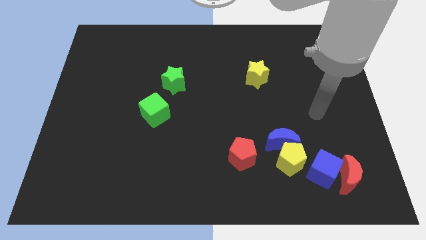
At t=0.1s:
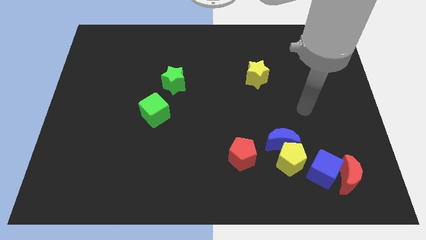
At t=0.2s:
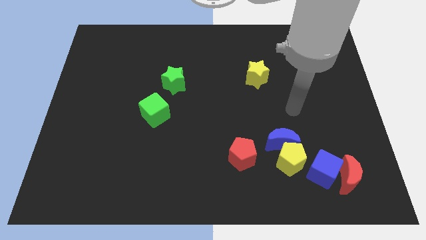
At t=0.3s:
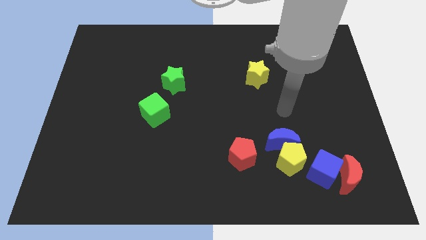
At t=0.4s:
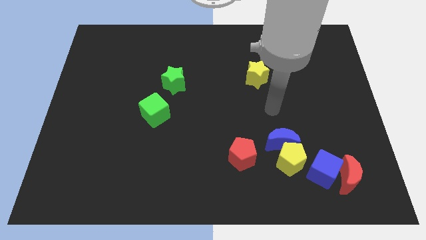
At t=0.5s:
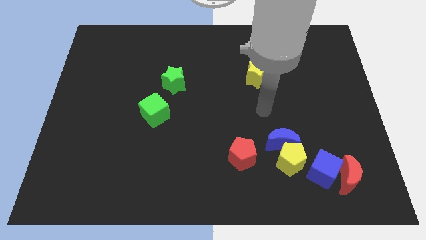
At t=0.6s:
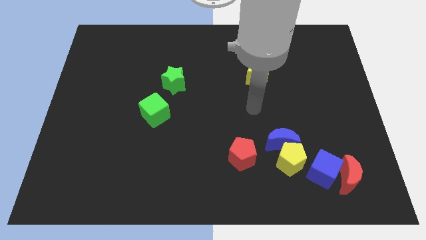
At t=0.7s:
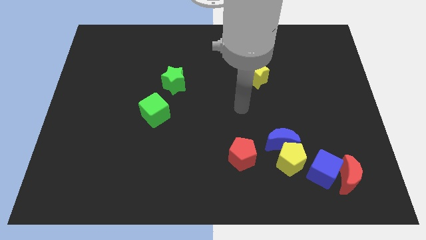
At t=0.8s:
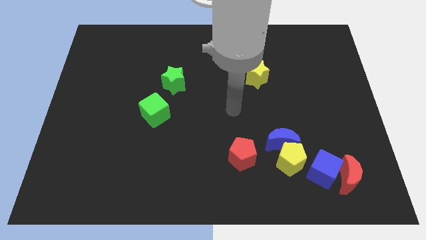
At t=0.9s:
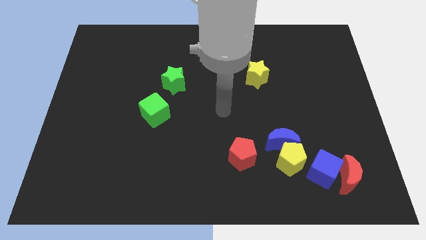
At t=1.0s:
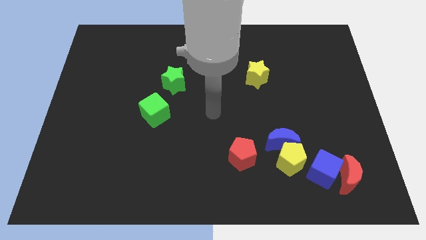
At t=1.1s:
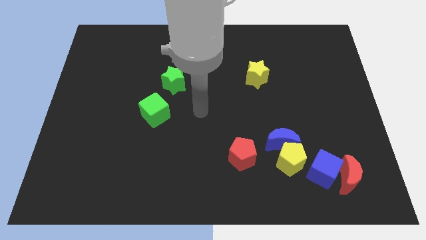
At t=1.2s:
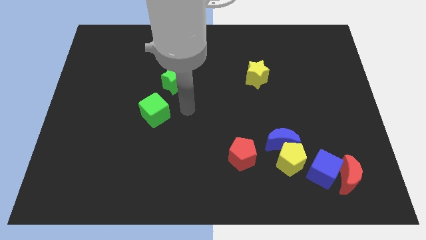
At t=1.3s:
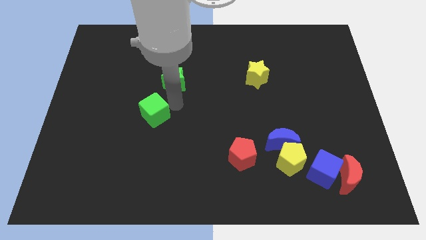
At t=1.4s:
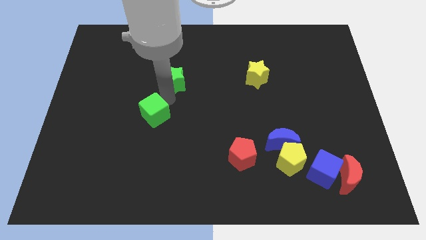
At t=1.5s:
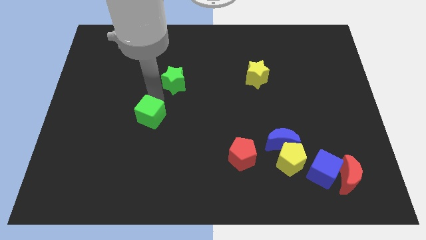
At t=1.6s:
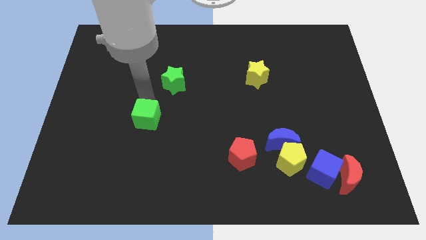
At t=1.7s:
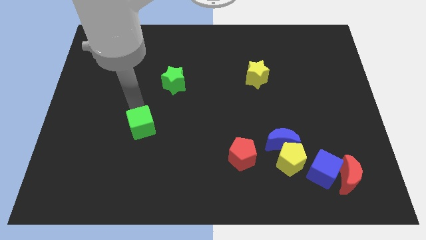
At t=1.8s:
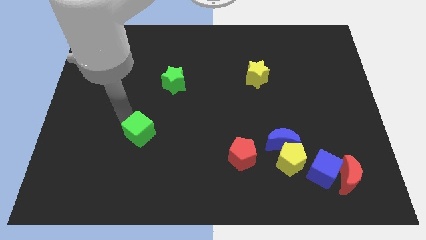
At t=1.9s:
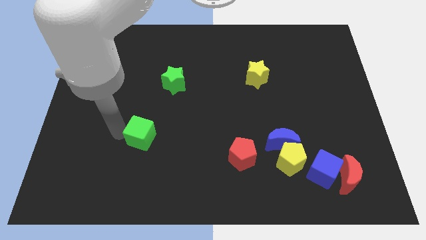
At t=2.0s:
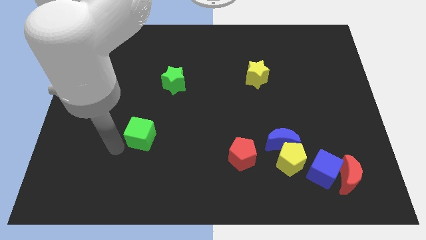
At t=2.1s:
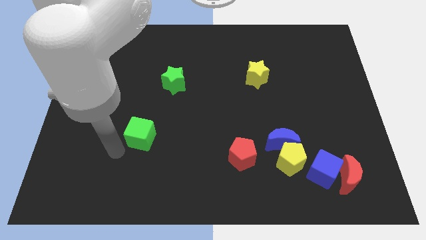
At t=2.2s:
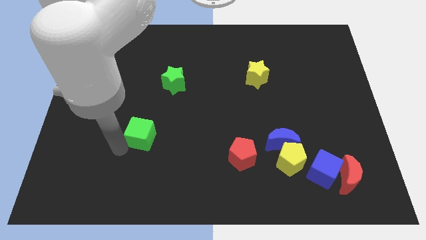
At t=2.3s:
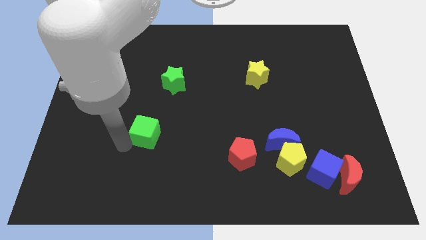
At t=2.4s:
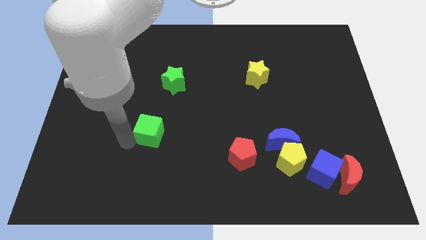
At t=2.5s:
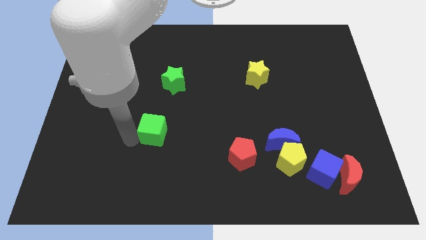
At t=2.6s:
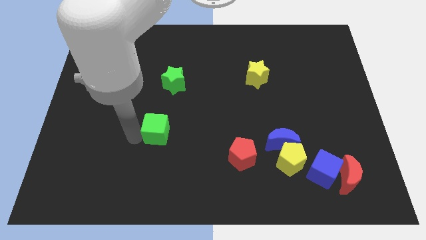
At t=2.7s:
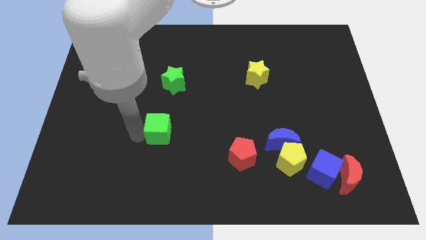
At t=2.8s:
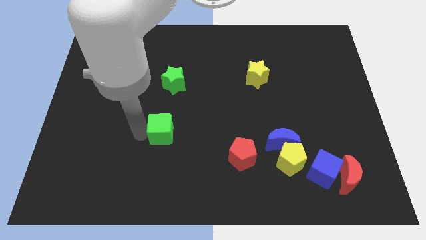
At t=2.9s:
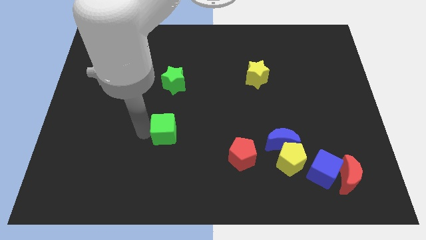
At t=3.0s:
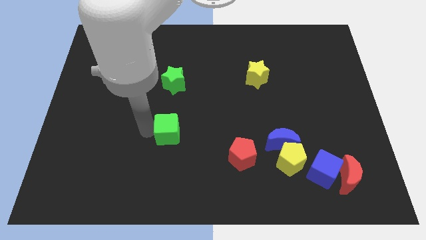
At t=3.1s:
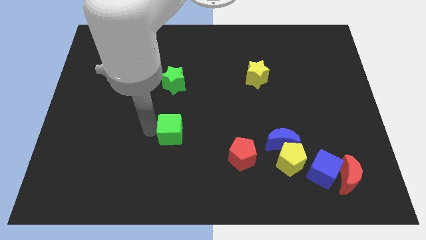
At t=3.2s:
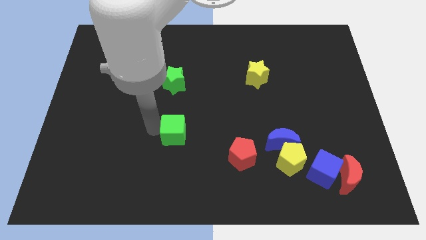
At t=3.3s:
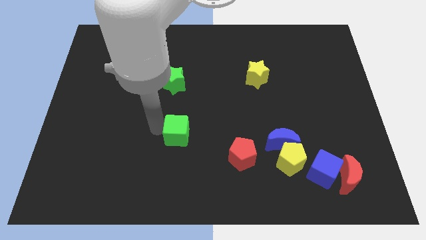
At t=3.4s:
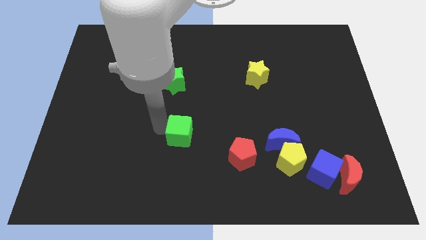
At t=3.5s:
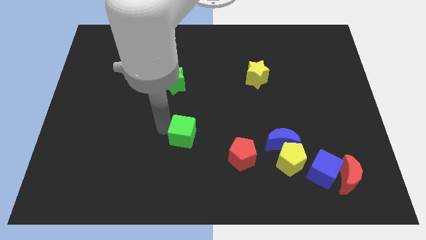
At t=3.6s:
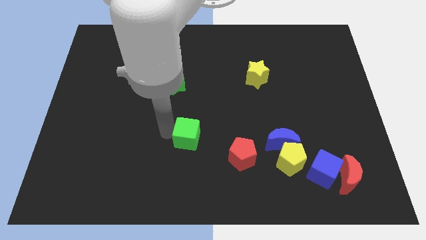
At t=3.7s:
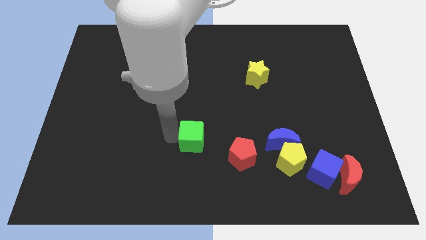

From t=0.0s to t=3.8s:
slightly move the green cube to the right

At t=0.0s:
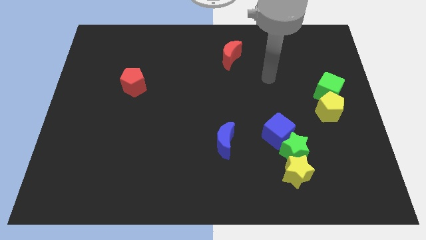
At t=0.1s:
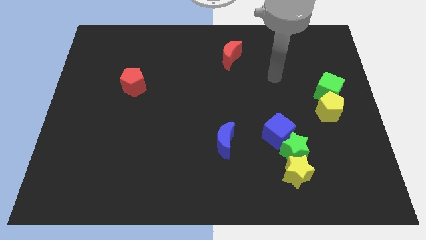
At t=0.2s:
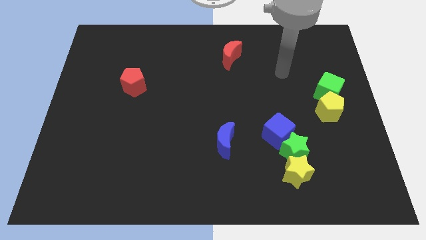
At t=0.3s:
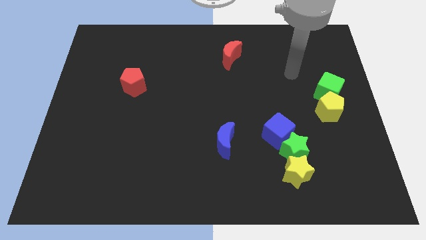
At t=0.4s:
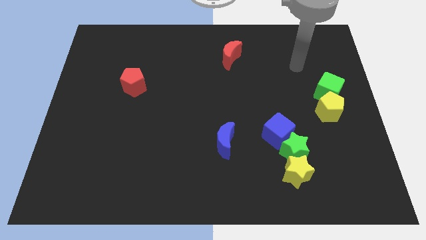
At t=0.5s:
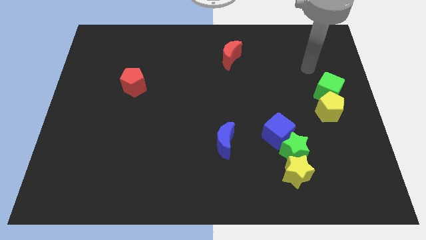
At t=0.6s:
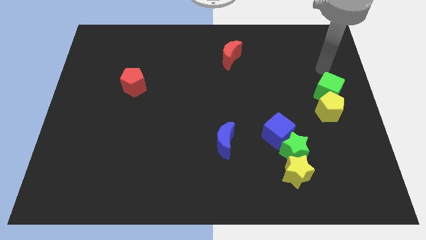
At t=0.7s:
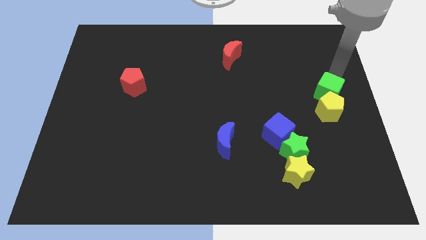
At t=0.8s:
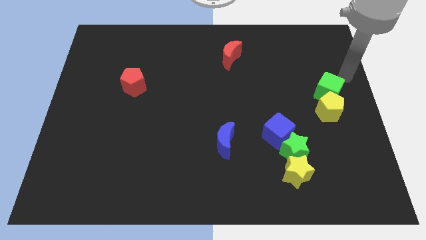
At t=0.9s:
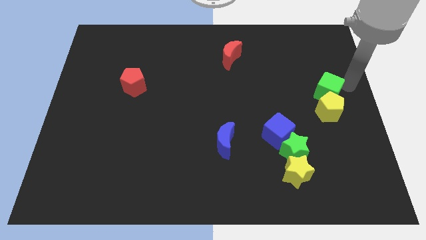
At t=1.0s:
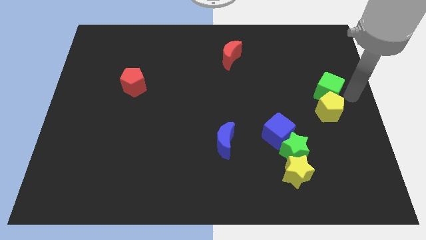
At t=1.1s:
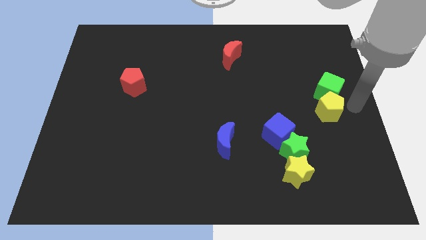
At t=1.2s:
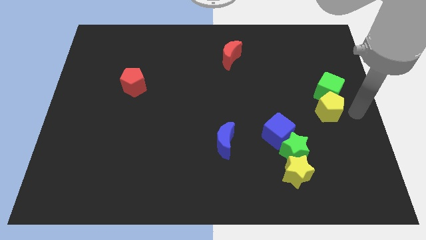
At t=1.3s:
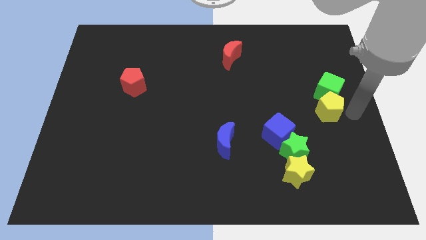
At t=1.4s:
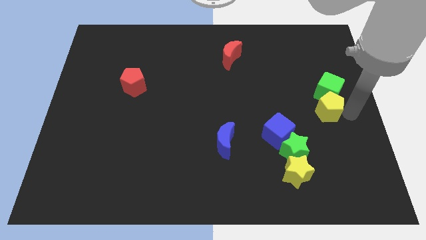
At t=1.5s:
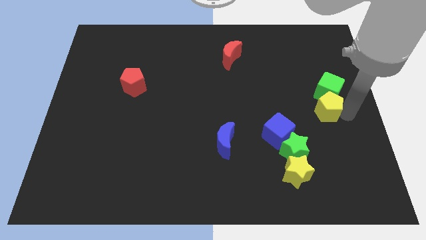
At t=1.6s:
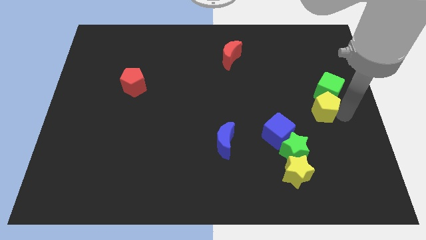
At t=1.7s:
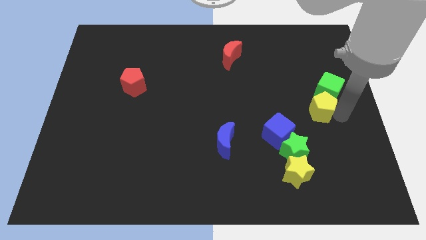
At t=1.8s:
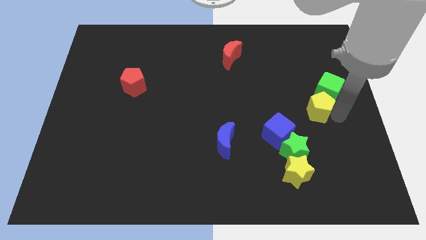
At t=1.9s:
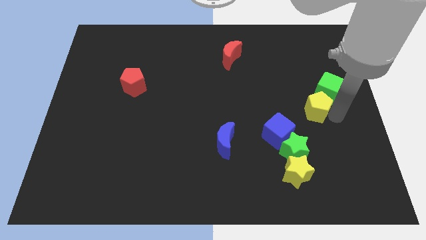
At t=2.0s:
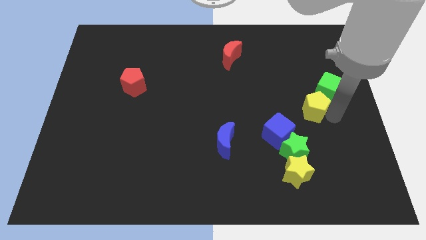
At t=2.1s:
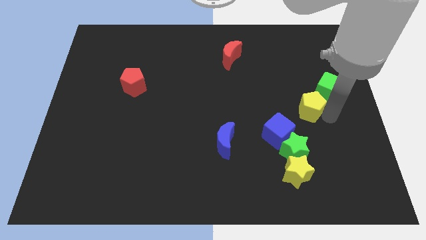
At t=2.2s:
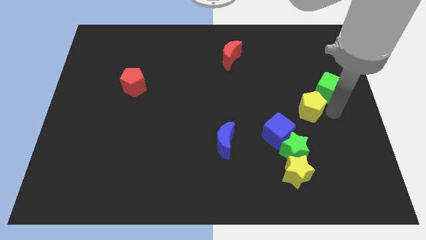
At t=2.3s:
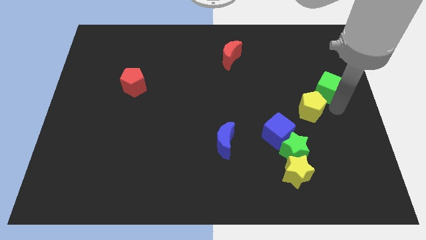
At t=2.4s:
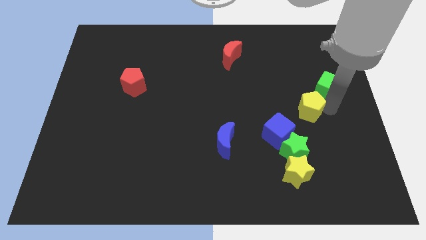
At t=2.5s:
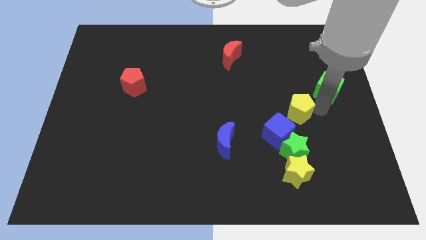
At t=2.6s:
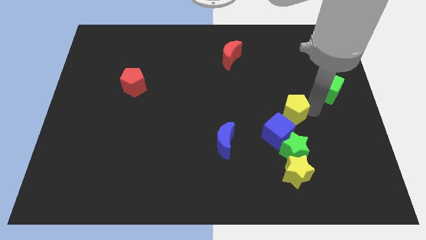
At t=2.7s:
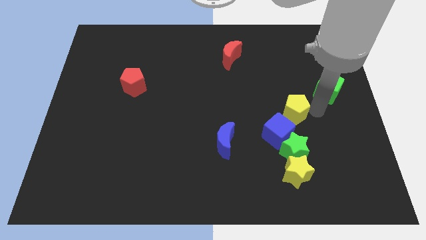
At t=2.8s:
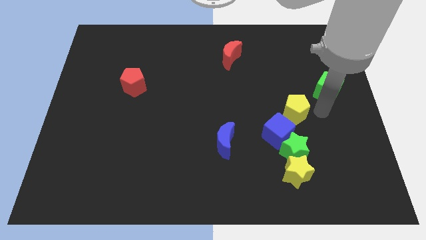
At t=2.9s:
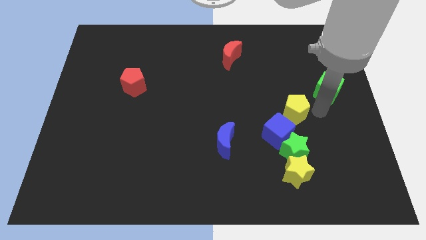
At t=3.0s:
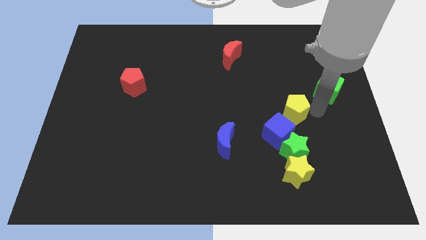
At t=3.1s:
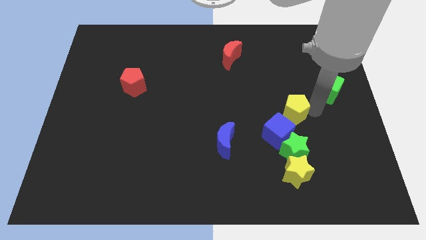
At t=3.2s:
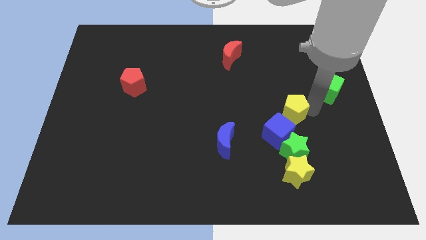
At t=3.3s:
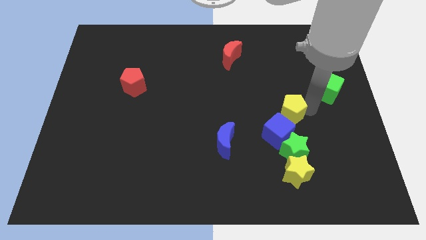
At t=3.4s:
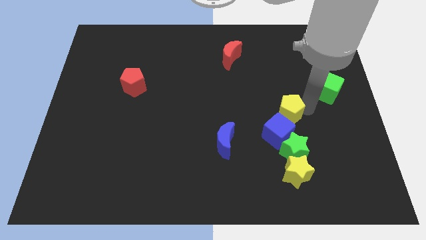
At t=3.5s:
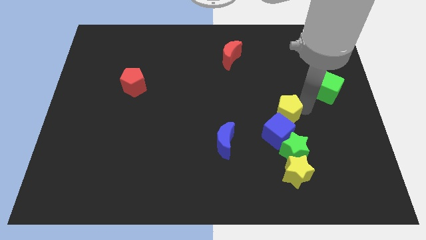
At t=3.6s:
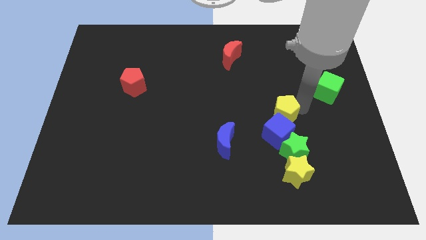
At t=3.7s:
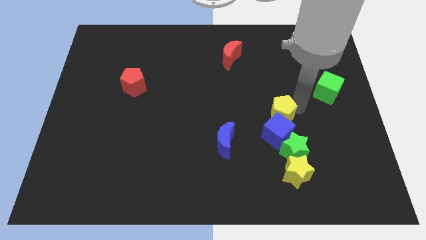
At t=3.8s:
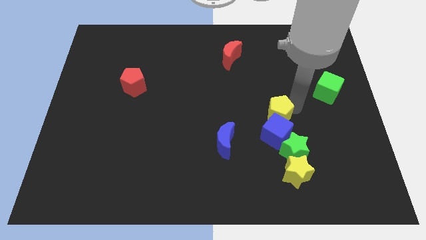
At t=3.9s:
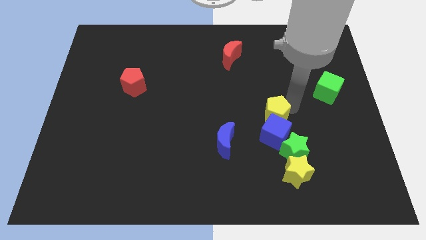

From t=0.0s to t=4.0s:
push the yellow pentagon a little diagonally down and left
